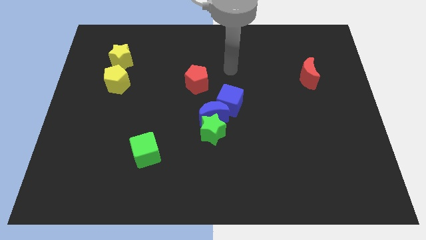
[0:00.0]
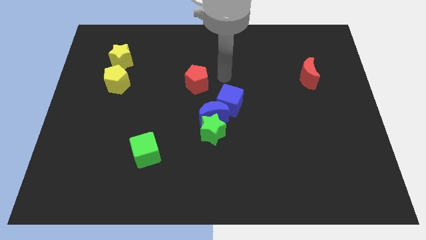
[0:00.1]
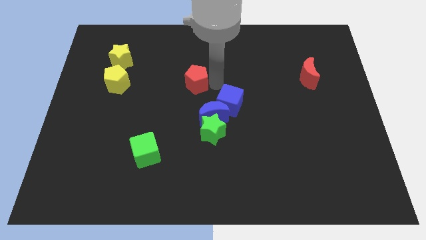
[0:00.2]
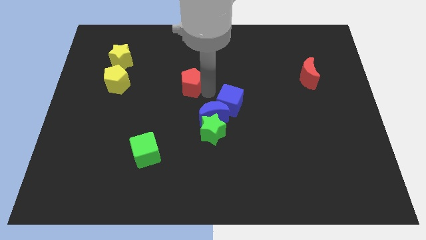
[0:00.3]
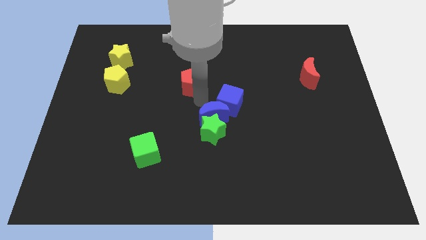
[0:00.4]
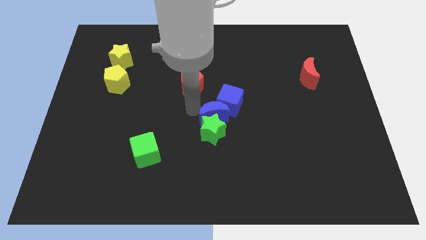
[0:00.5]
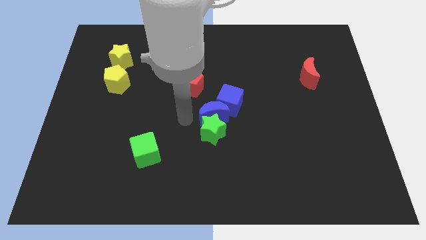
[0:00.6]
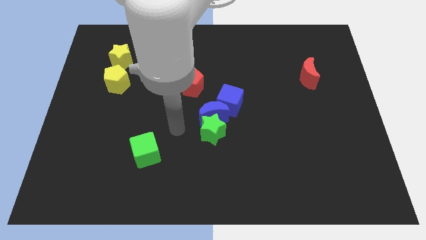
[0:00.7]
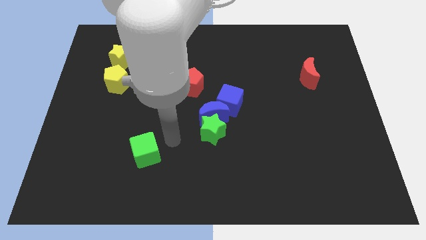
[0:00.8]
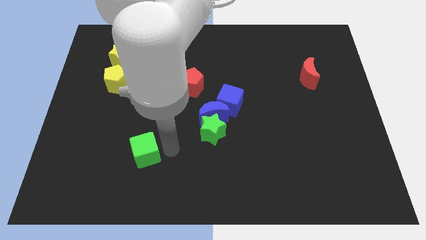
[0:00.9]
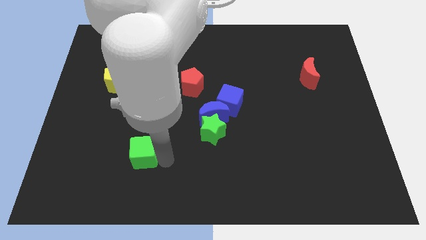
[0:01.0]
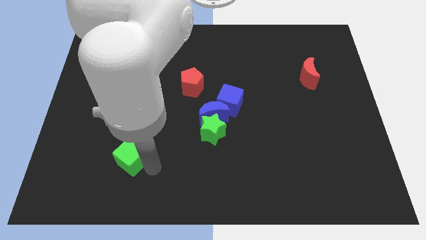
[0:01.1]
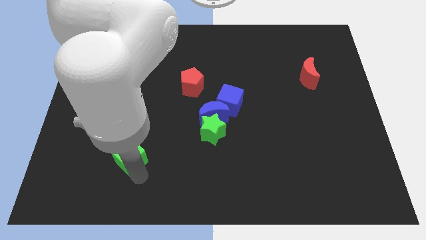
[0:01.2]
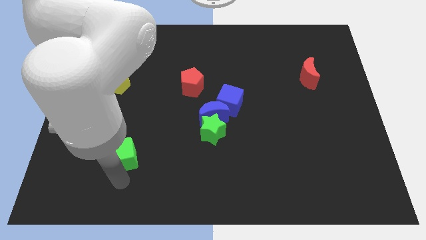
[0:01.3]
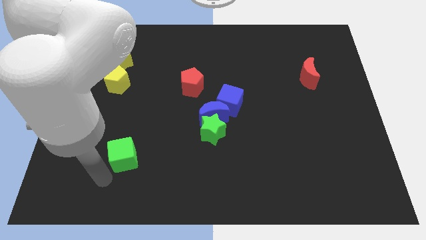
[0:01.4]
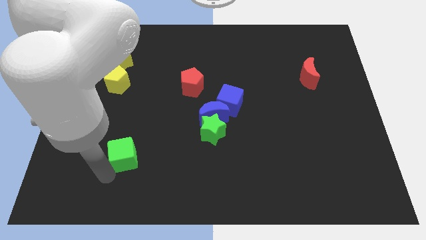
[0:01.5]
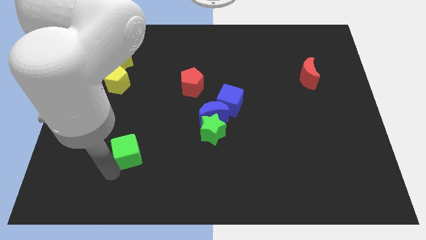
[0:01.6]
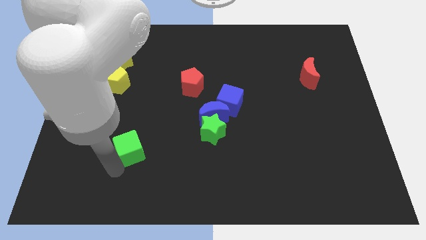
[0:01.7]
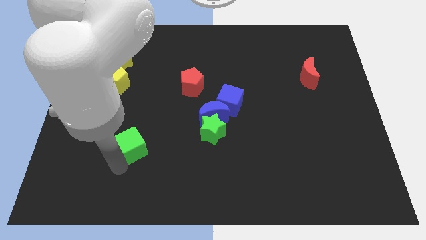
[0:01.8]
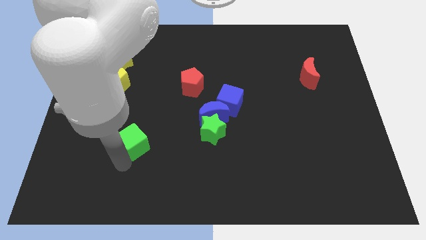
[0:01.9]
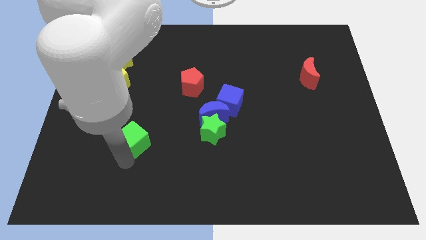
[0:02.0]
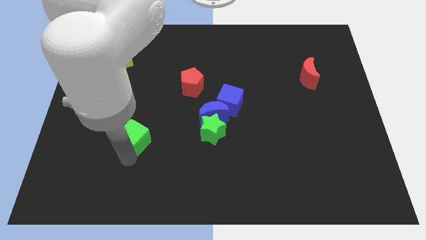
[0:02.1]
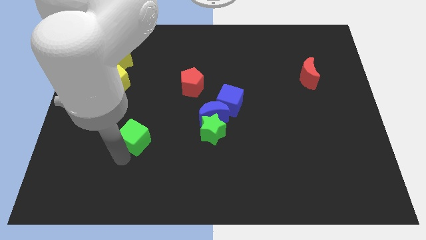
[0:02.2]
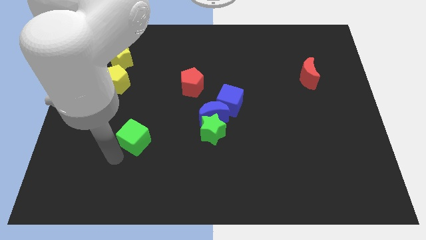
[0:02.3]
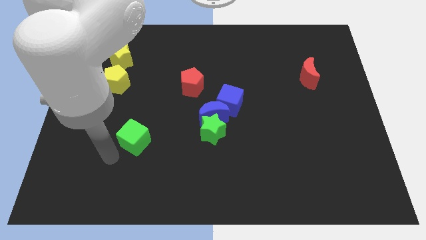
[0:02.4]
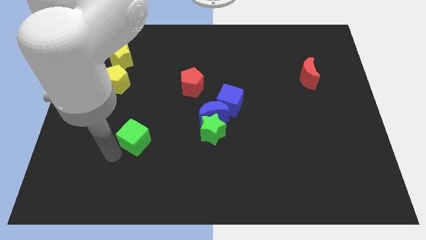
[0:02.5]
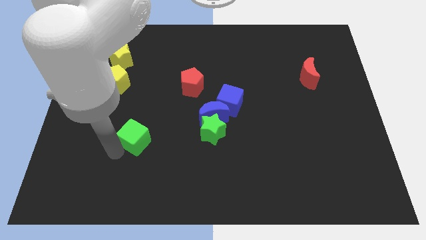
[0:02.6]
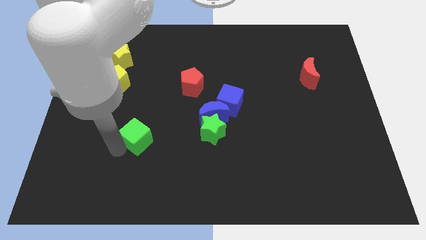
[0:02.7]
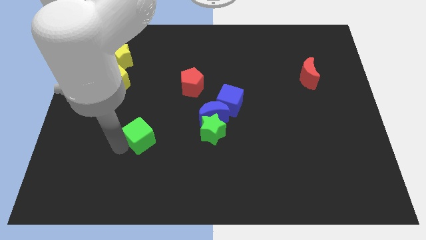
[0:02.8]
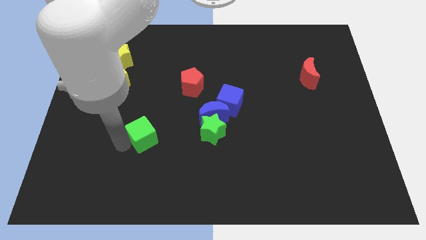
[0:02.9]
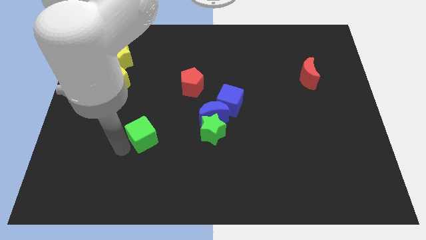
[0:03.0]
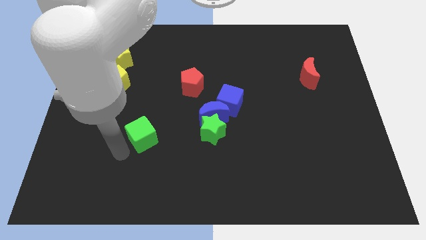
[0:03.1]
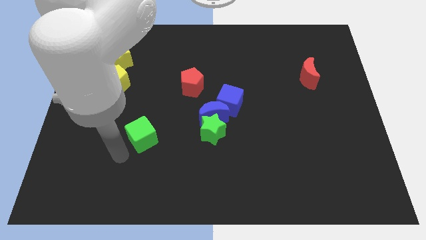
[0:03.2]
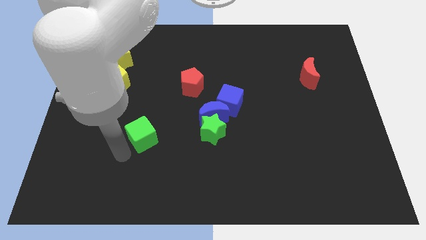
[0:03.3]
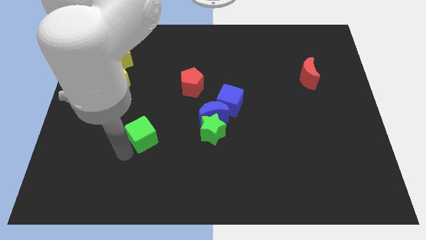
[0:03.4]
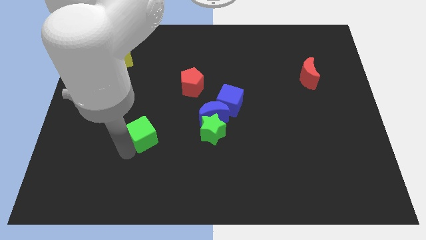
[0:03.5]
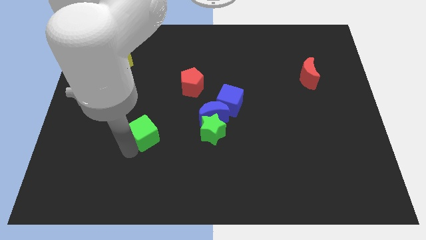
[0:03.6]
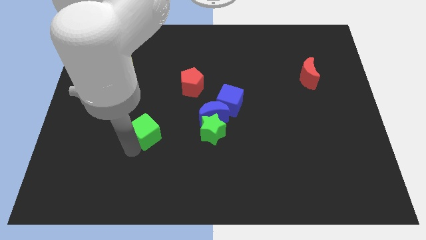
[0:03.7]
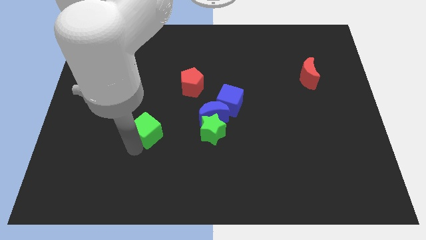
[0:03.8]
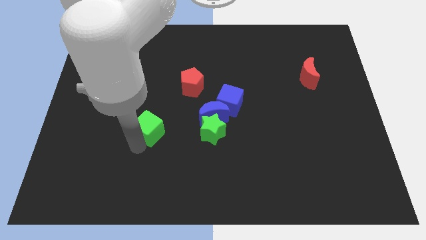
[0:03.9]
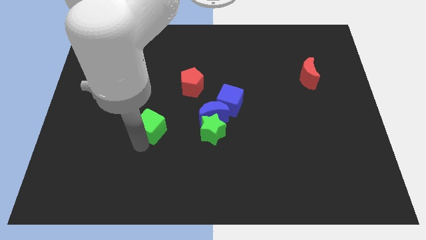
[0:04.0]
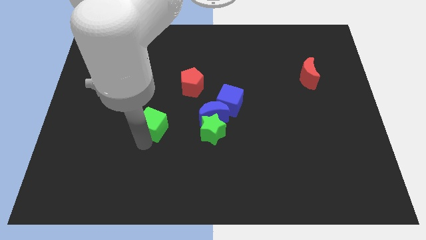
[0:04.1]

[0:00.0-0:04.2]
push the green cube up a little bit

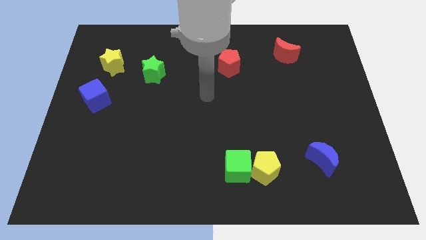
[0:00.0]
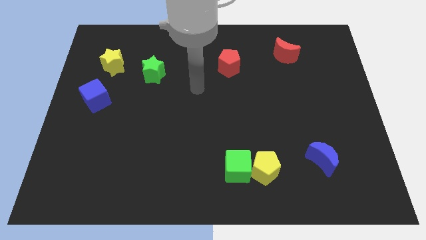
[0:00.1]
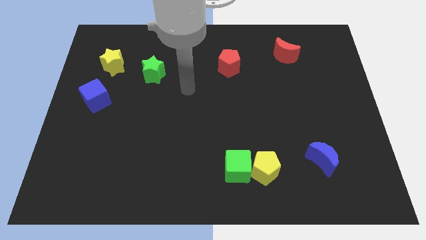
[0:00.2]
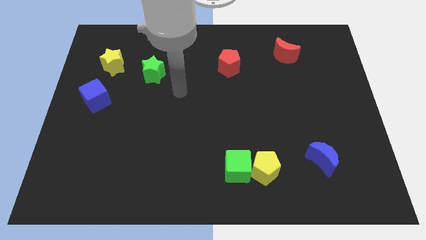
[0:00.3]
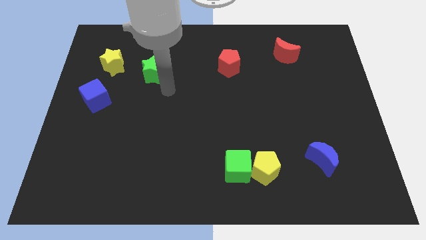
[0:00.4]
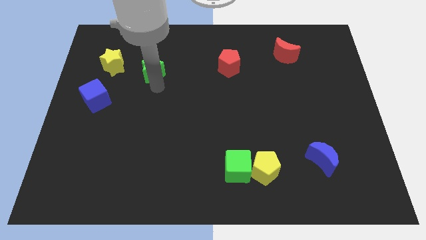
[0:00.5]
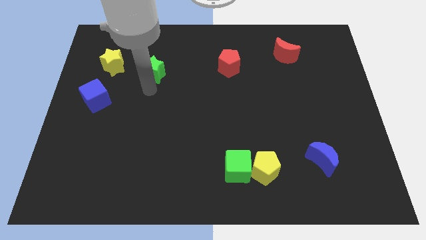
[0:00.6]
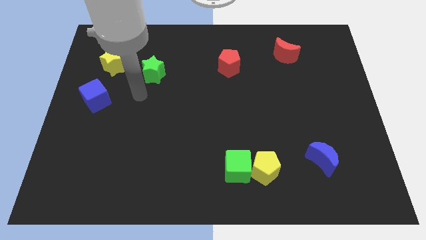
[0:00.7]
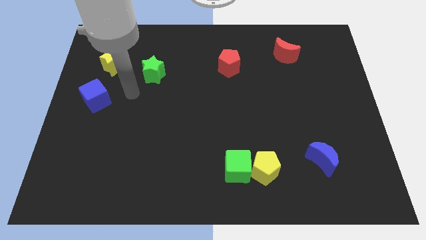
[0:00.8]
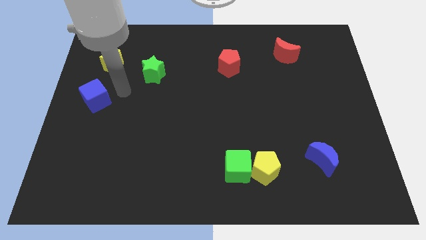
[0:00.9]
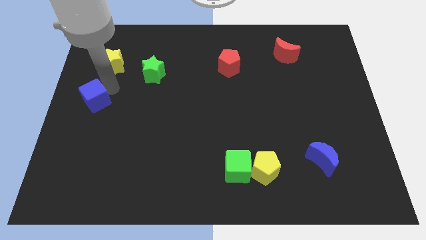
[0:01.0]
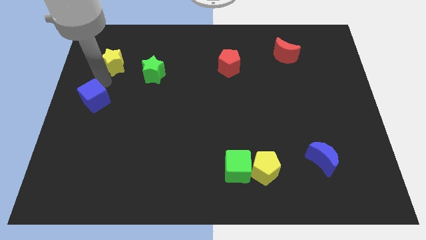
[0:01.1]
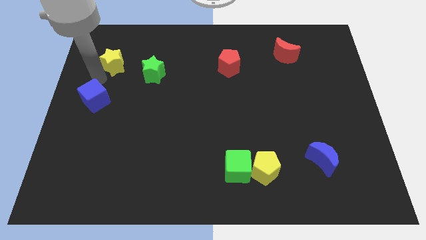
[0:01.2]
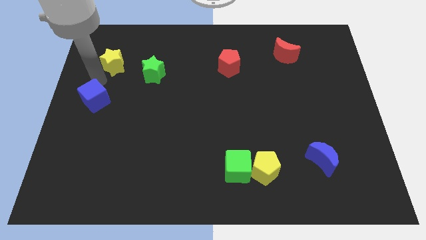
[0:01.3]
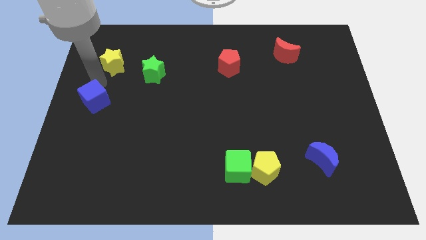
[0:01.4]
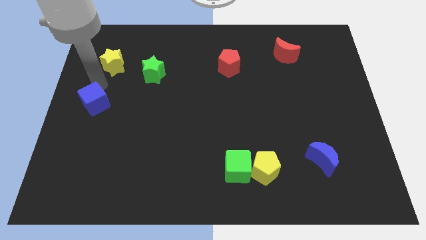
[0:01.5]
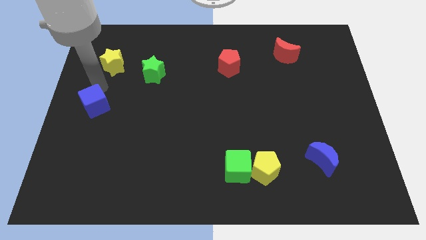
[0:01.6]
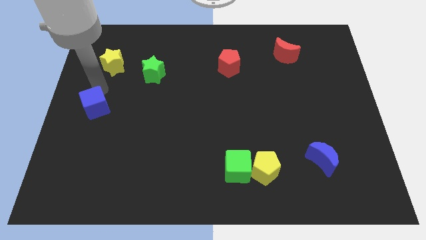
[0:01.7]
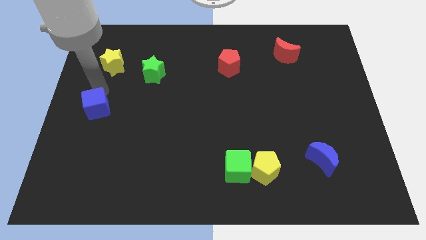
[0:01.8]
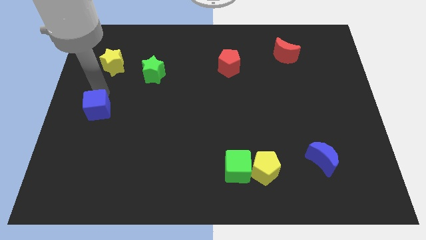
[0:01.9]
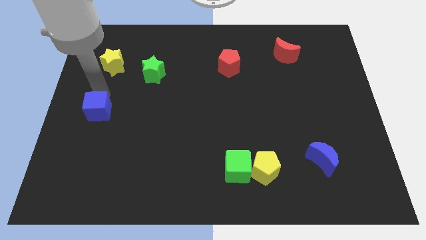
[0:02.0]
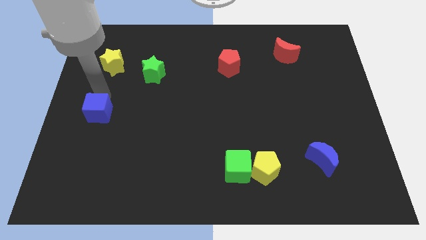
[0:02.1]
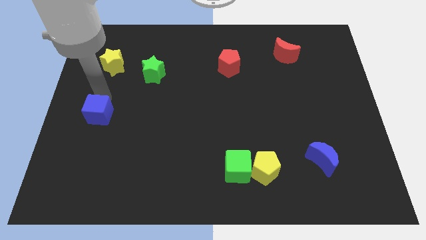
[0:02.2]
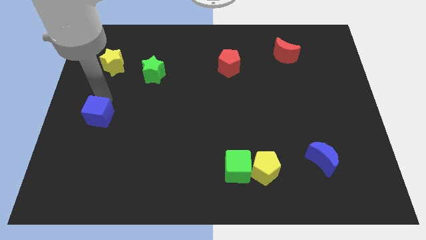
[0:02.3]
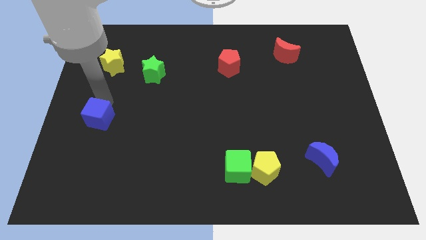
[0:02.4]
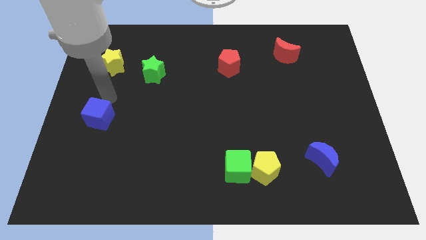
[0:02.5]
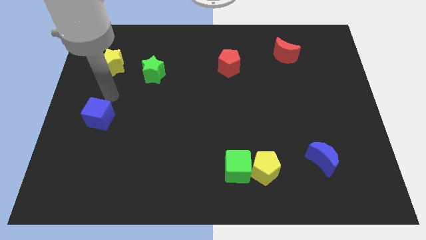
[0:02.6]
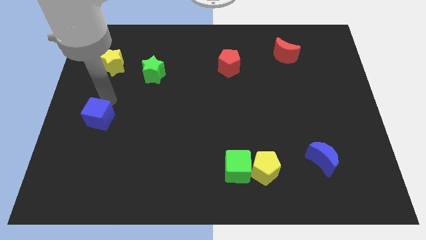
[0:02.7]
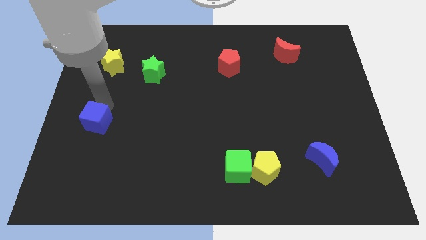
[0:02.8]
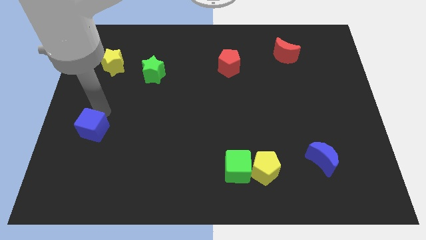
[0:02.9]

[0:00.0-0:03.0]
move the blue cube a little downwards

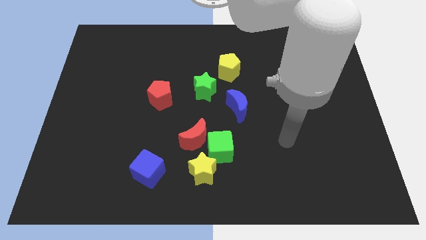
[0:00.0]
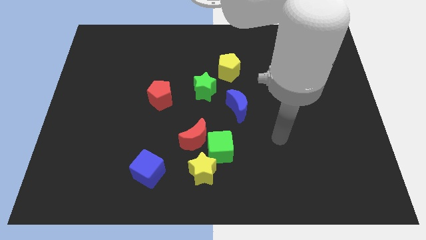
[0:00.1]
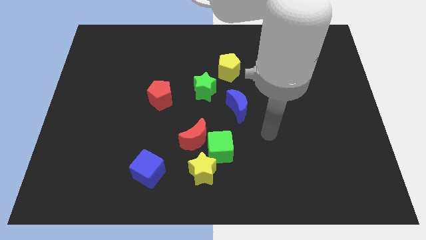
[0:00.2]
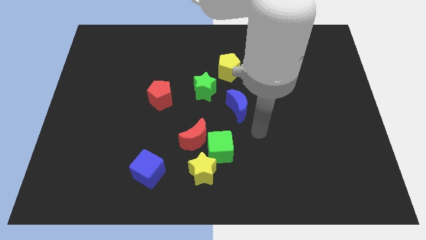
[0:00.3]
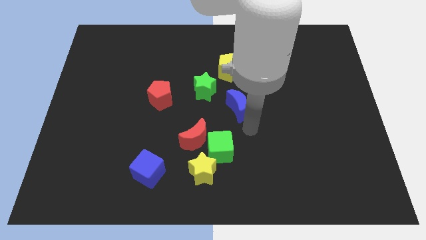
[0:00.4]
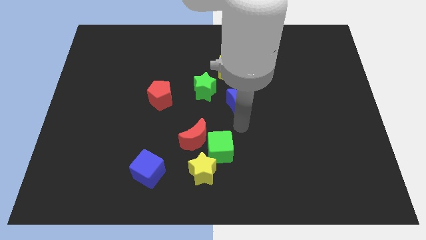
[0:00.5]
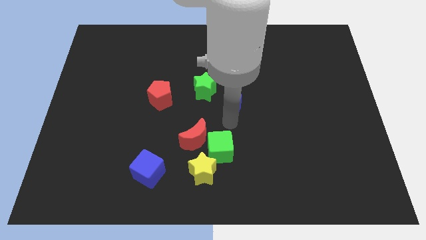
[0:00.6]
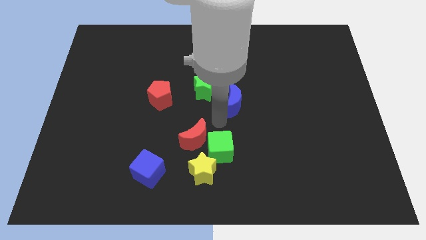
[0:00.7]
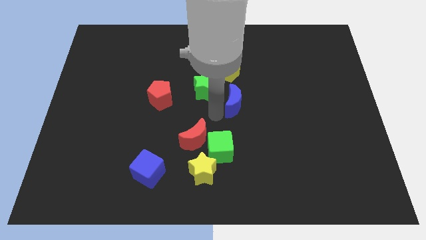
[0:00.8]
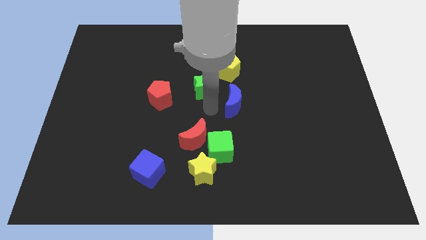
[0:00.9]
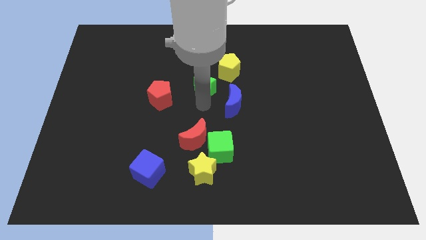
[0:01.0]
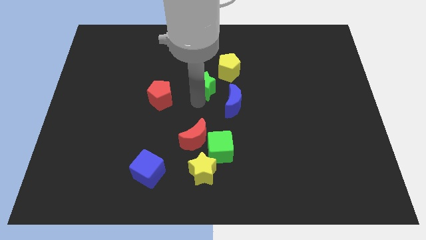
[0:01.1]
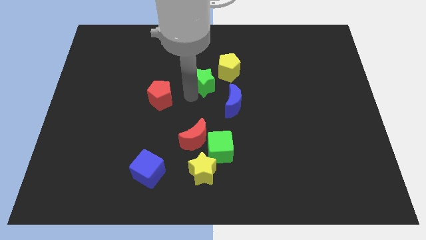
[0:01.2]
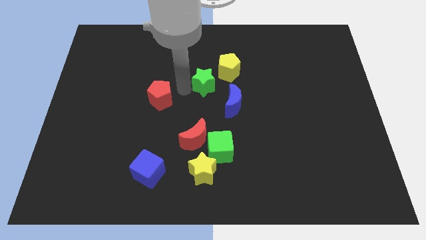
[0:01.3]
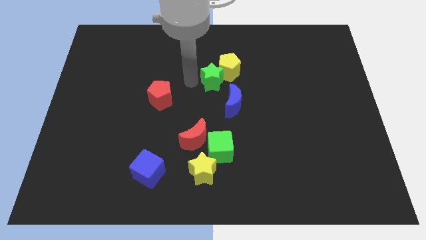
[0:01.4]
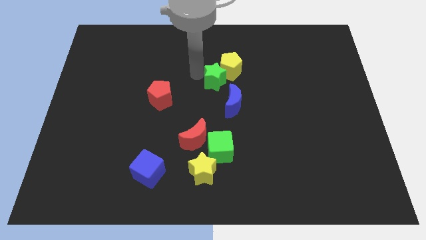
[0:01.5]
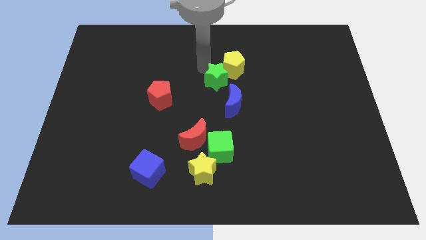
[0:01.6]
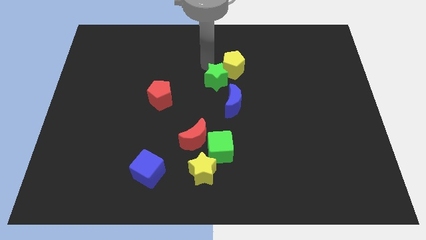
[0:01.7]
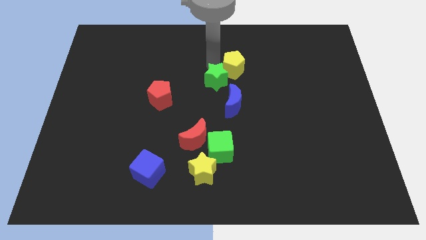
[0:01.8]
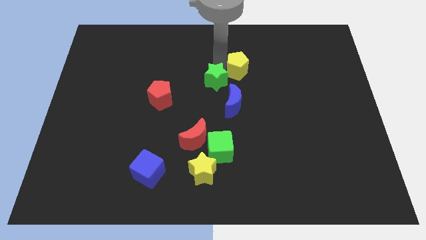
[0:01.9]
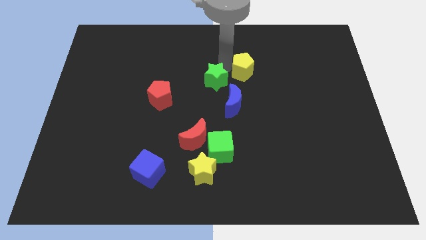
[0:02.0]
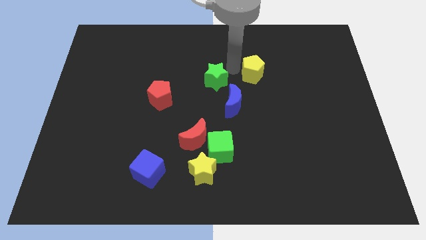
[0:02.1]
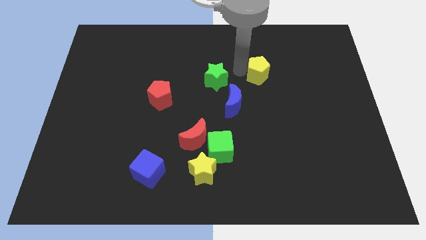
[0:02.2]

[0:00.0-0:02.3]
slightly push the yellow pentagon to the right
